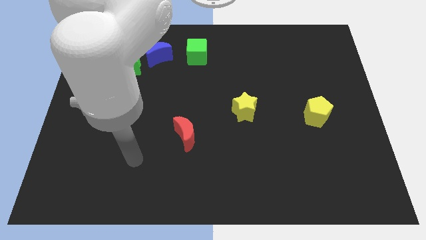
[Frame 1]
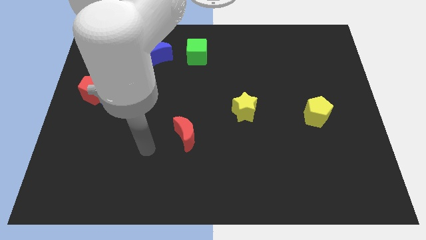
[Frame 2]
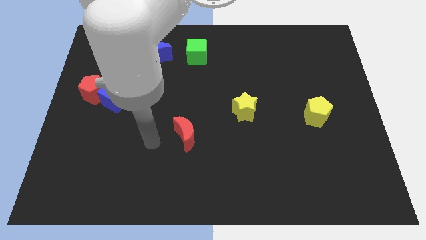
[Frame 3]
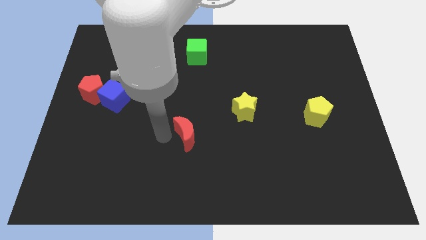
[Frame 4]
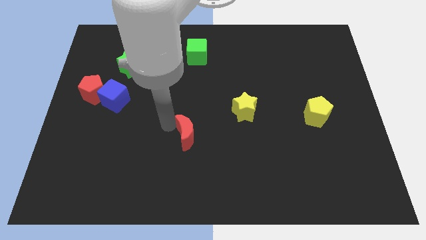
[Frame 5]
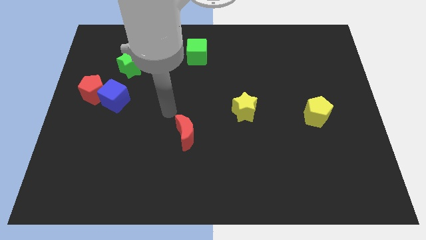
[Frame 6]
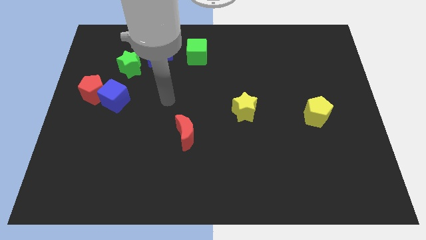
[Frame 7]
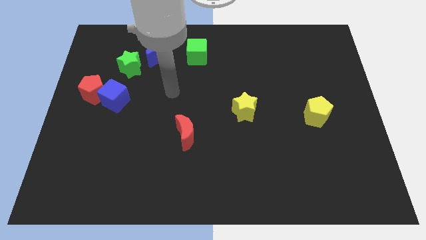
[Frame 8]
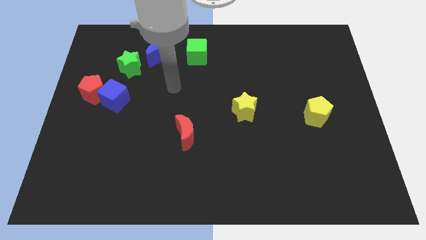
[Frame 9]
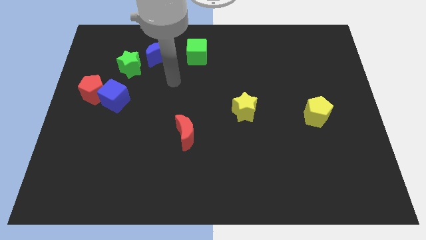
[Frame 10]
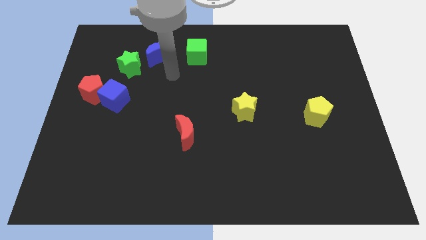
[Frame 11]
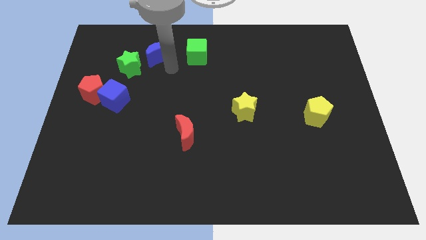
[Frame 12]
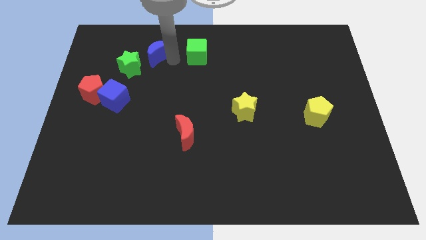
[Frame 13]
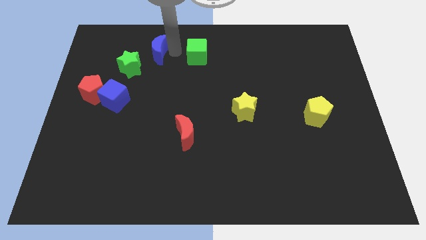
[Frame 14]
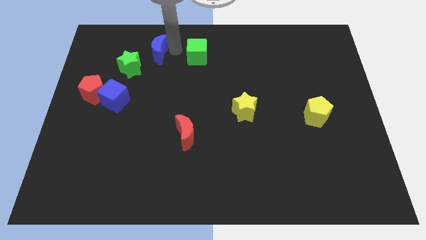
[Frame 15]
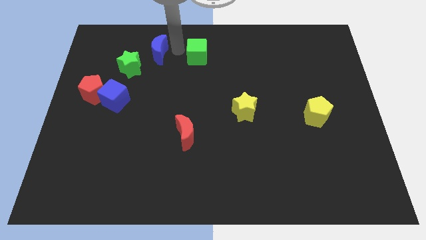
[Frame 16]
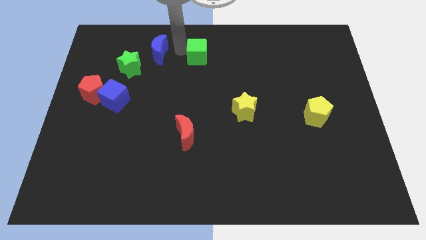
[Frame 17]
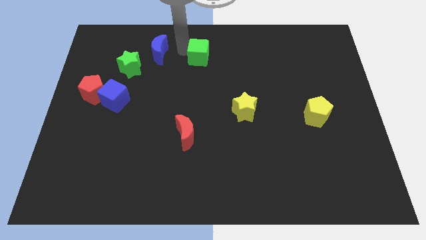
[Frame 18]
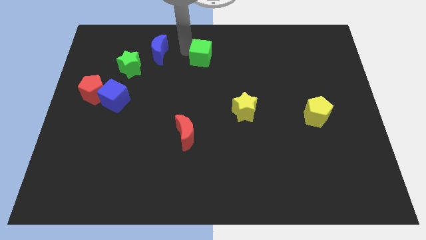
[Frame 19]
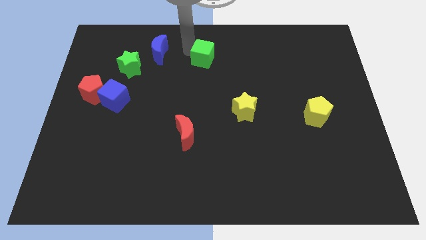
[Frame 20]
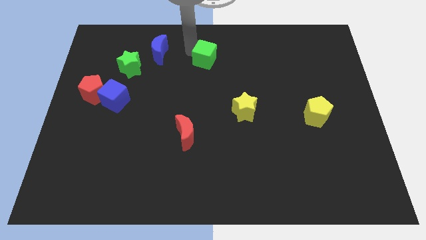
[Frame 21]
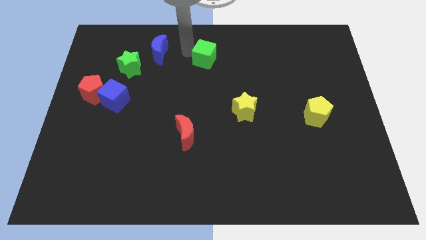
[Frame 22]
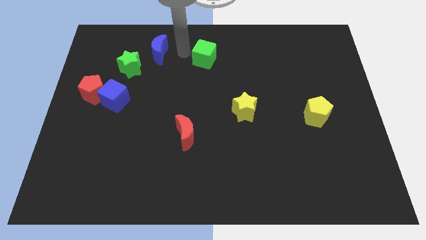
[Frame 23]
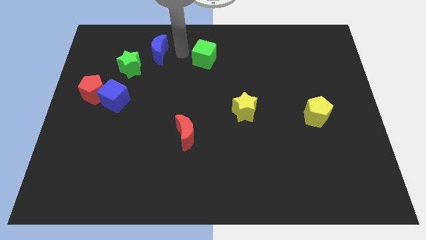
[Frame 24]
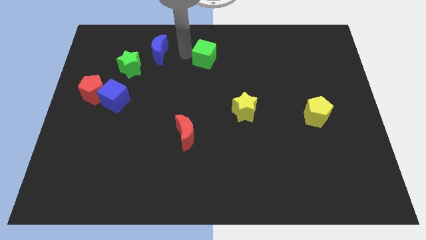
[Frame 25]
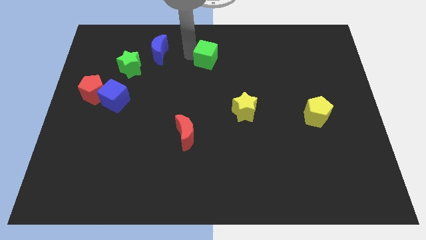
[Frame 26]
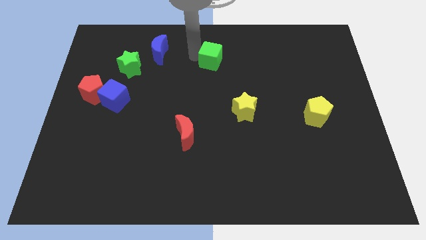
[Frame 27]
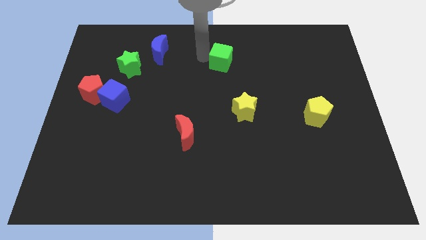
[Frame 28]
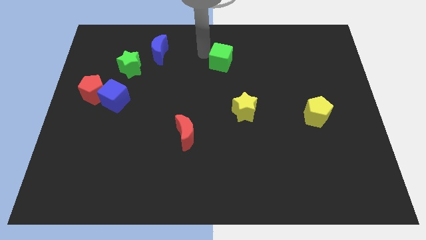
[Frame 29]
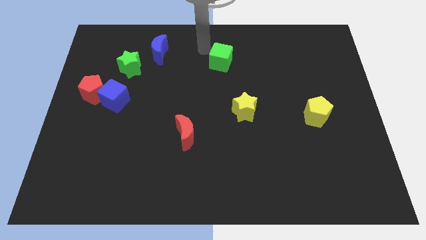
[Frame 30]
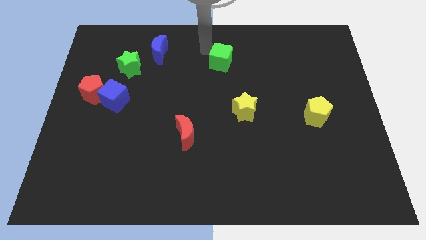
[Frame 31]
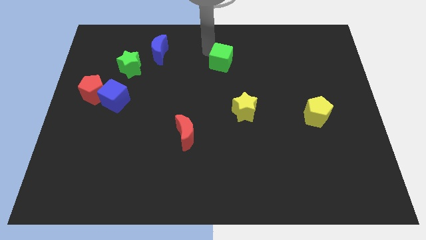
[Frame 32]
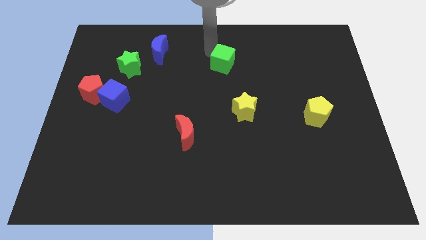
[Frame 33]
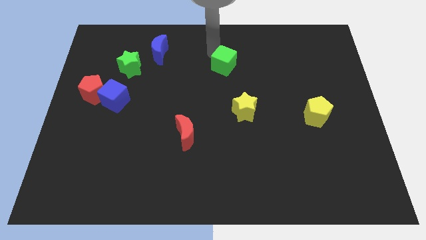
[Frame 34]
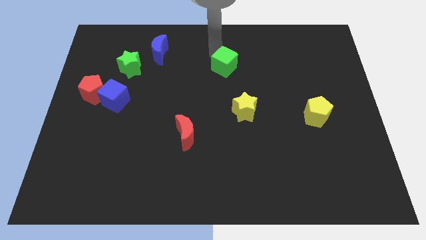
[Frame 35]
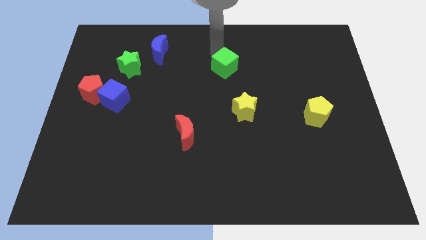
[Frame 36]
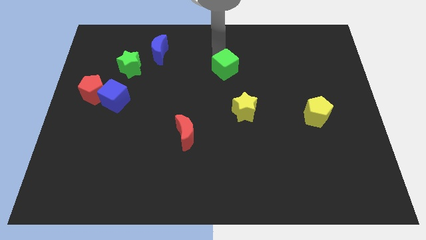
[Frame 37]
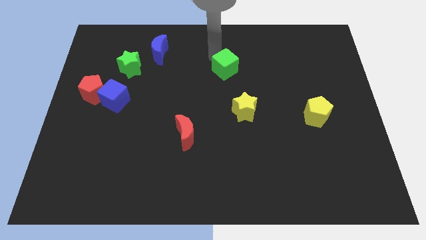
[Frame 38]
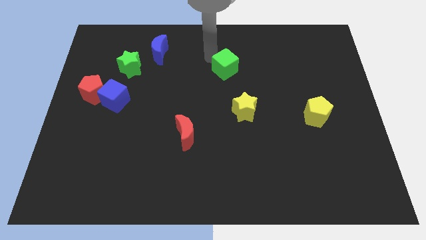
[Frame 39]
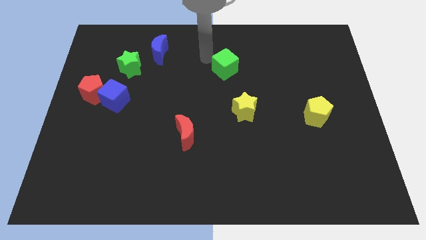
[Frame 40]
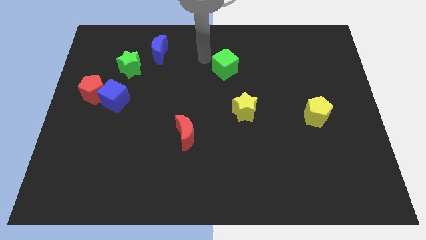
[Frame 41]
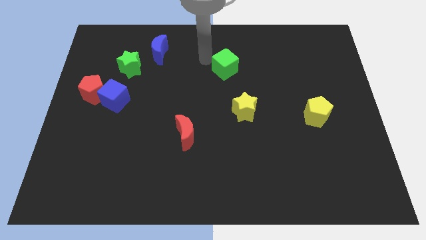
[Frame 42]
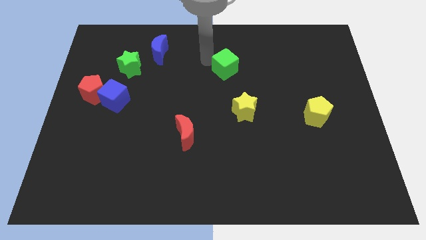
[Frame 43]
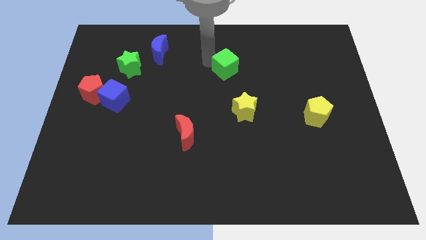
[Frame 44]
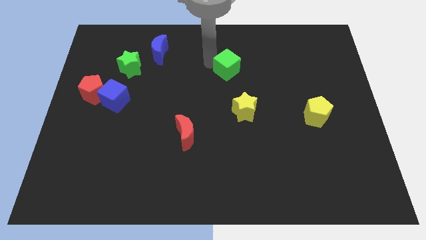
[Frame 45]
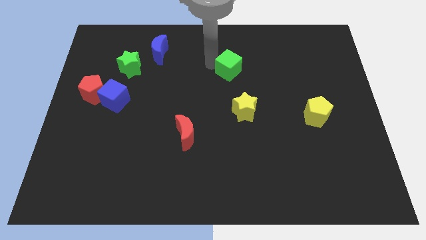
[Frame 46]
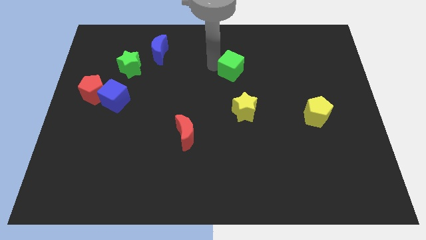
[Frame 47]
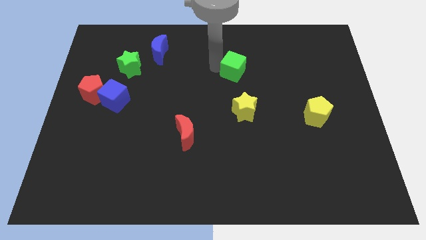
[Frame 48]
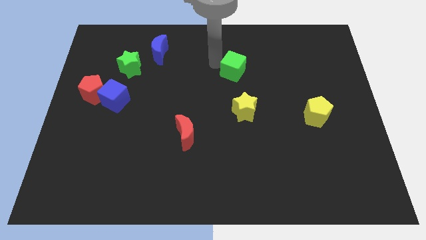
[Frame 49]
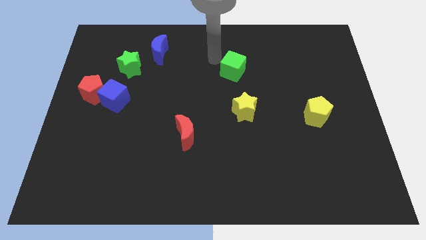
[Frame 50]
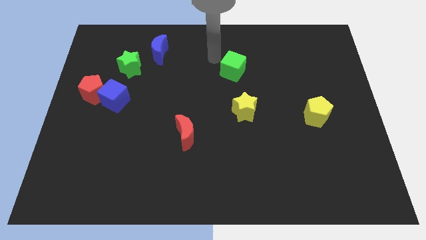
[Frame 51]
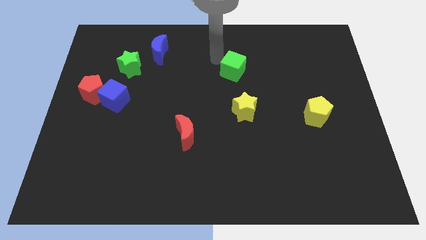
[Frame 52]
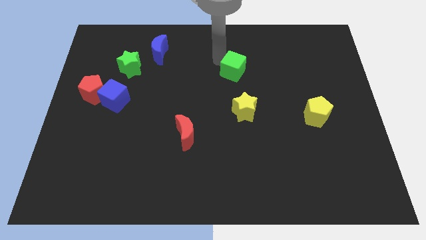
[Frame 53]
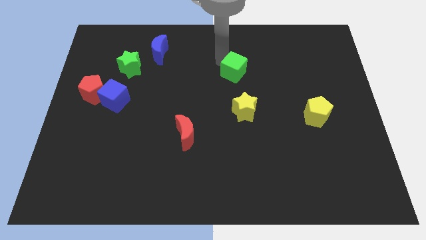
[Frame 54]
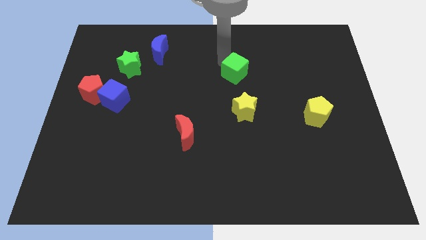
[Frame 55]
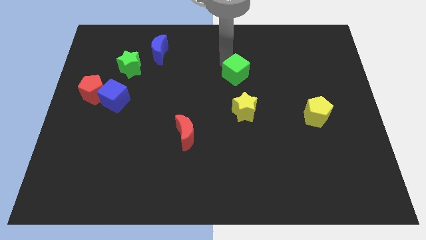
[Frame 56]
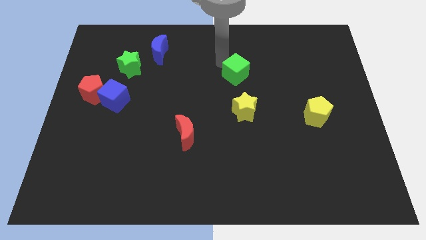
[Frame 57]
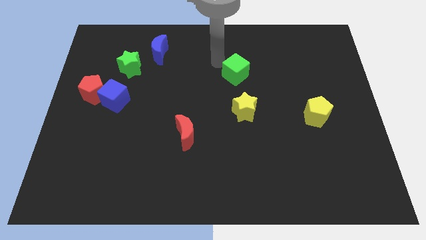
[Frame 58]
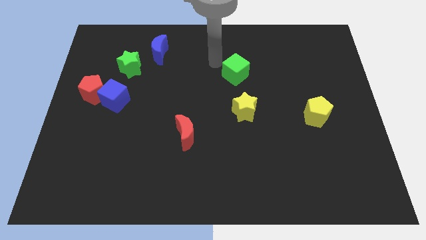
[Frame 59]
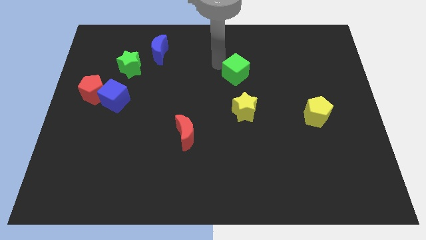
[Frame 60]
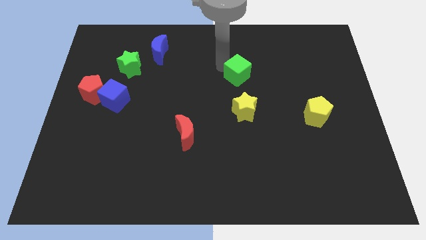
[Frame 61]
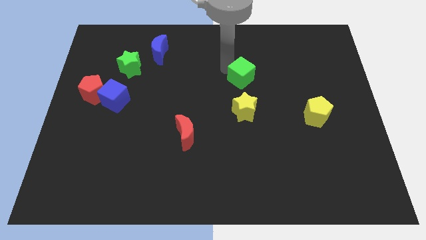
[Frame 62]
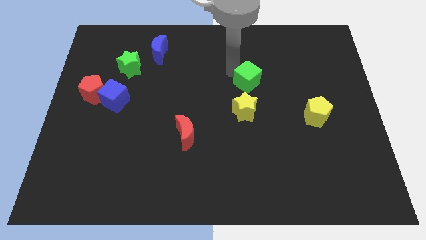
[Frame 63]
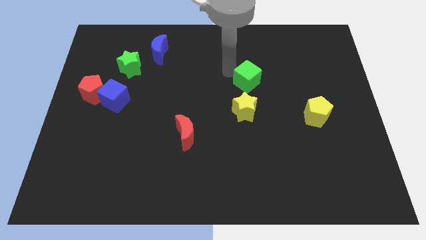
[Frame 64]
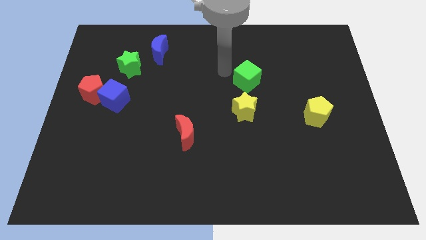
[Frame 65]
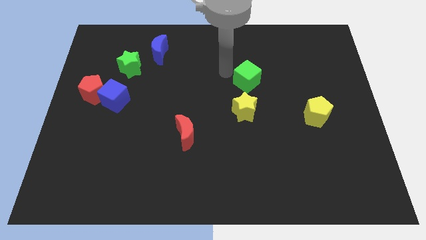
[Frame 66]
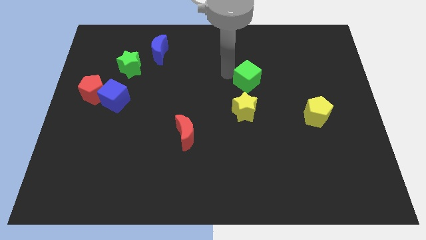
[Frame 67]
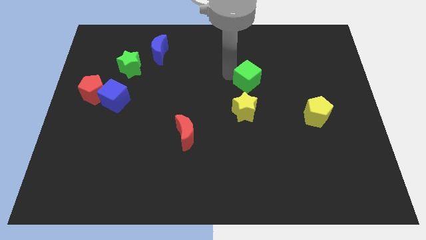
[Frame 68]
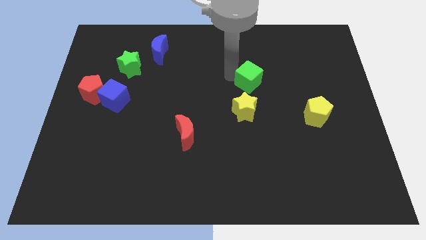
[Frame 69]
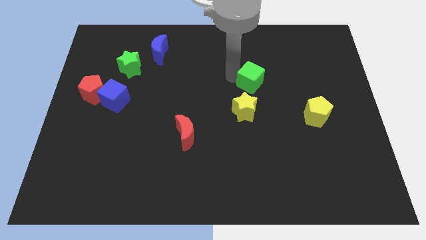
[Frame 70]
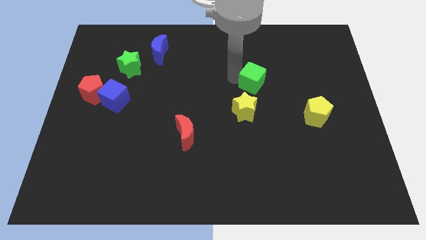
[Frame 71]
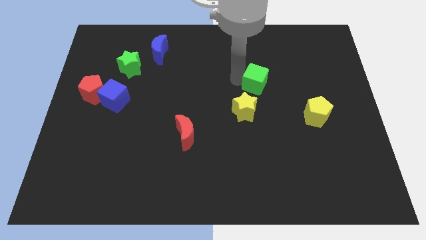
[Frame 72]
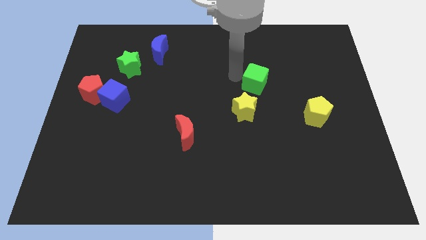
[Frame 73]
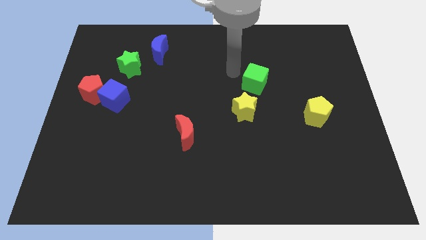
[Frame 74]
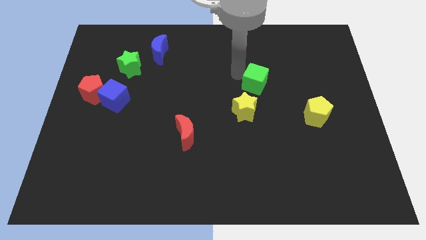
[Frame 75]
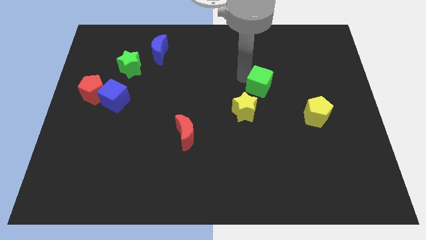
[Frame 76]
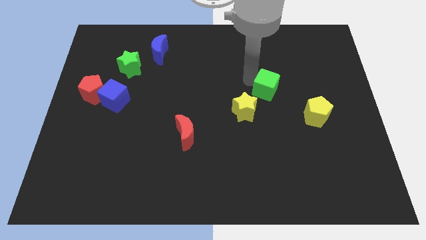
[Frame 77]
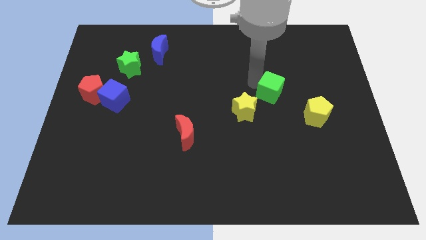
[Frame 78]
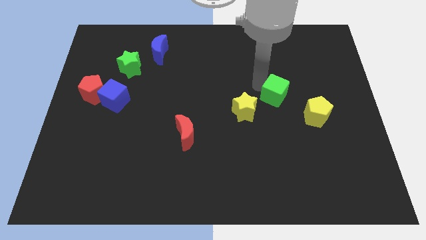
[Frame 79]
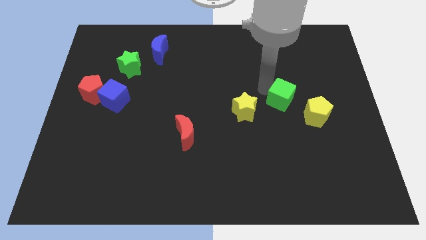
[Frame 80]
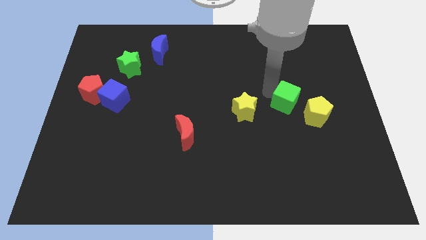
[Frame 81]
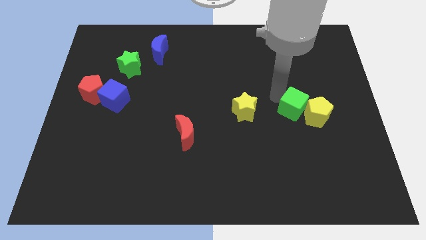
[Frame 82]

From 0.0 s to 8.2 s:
move the green cube next to the yellow pentagon

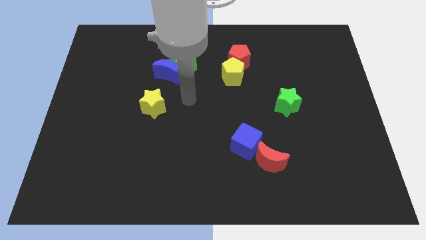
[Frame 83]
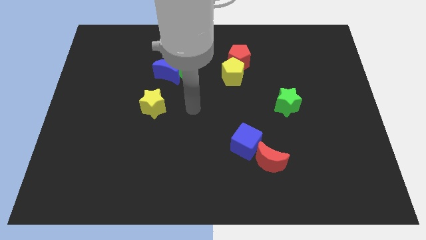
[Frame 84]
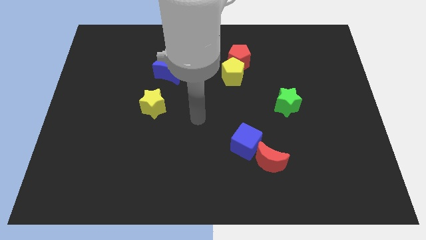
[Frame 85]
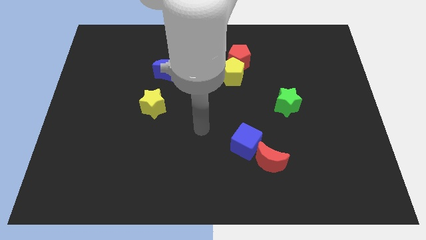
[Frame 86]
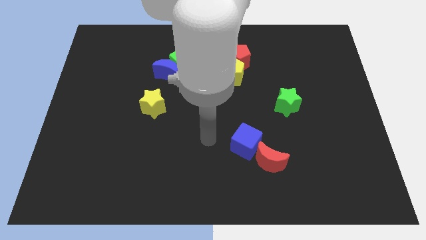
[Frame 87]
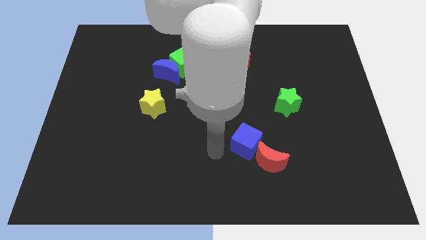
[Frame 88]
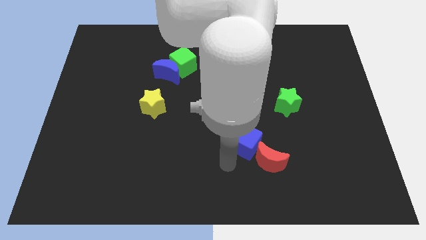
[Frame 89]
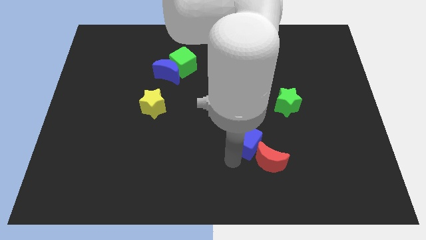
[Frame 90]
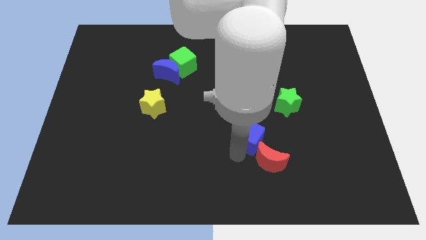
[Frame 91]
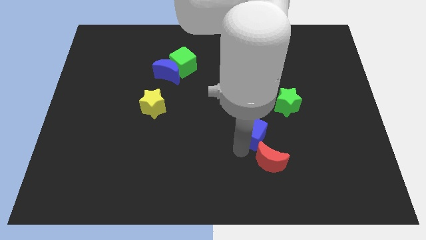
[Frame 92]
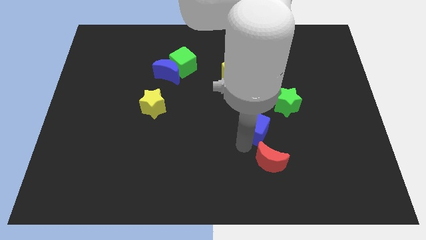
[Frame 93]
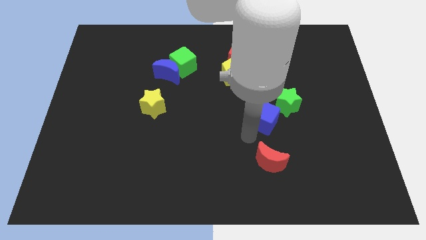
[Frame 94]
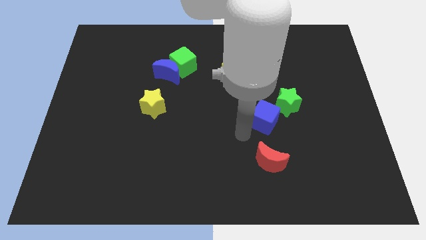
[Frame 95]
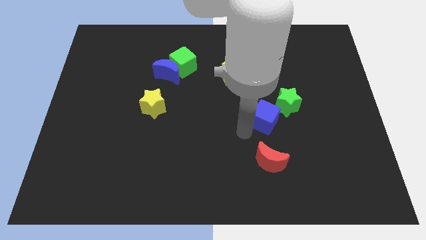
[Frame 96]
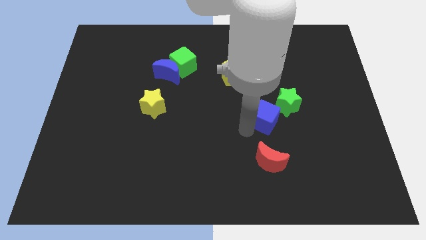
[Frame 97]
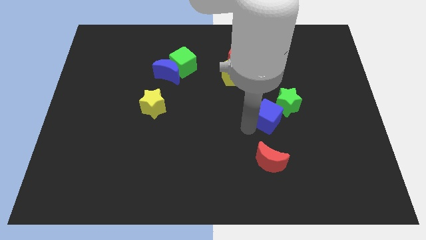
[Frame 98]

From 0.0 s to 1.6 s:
move the blue cube towards the green star
